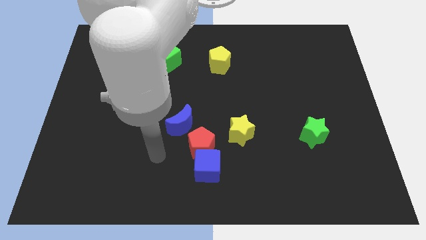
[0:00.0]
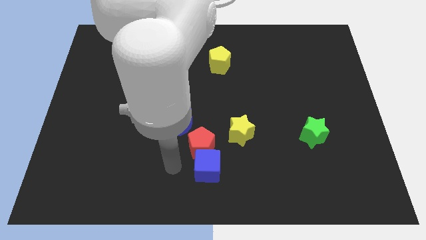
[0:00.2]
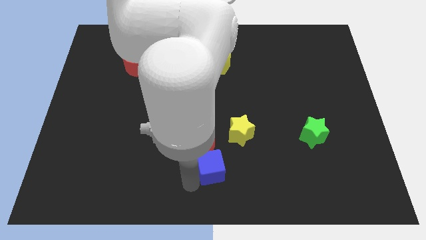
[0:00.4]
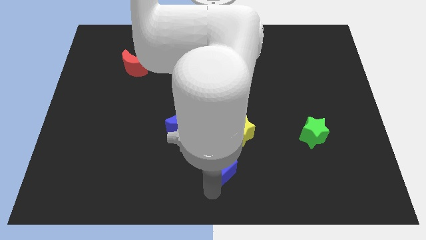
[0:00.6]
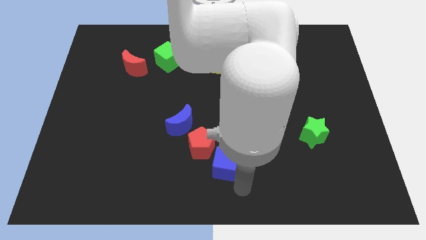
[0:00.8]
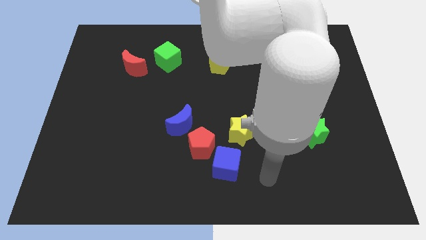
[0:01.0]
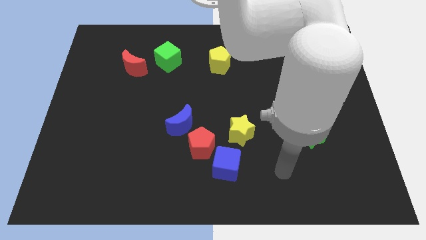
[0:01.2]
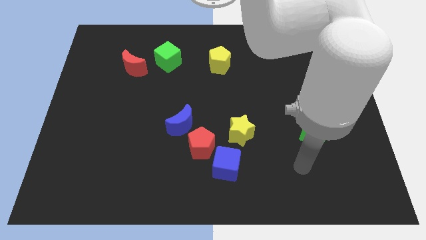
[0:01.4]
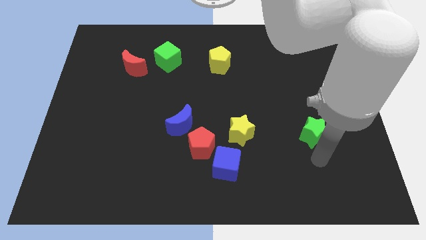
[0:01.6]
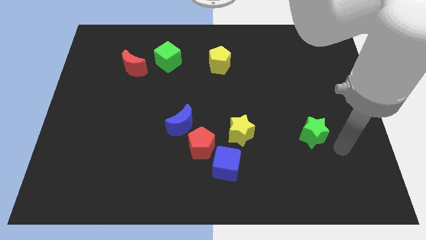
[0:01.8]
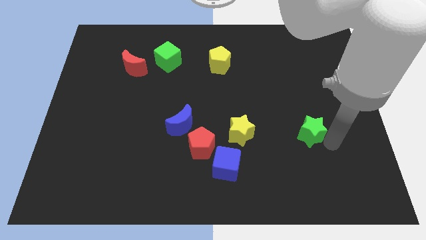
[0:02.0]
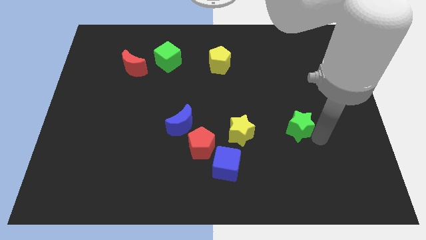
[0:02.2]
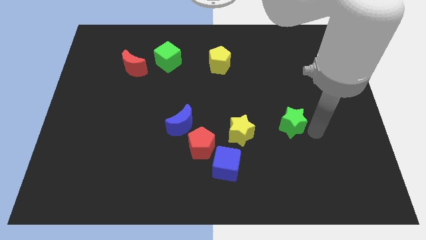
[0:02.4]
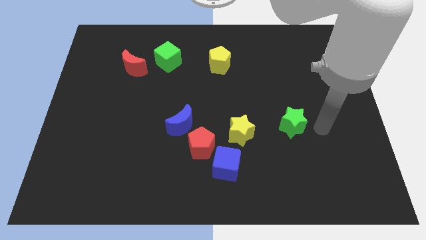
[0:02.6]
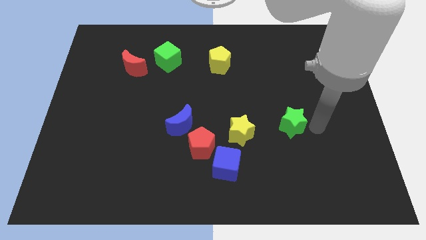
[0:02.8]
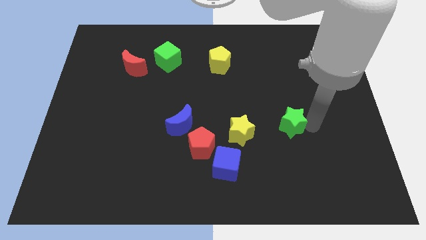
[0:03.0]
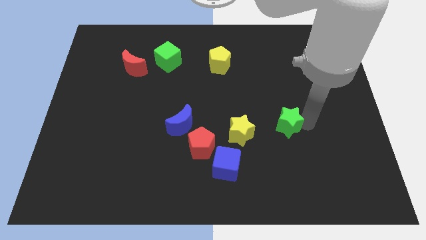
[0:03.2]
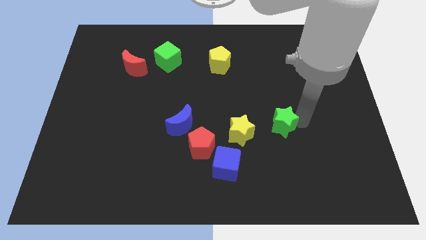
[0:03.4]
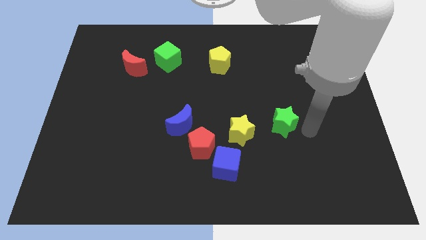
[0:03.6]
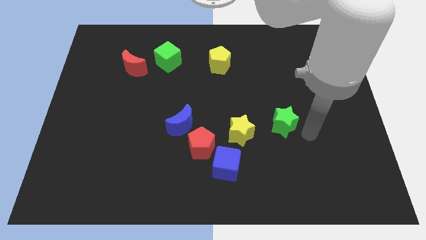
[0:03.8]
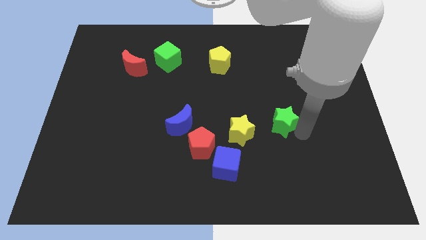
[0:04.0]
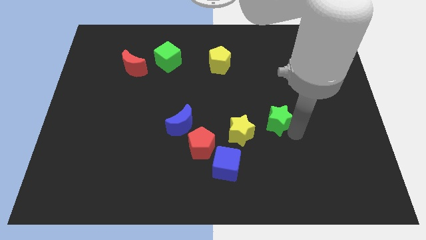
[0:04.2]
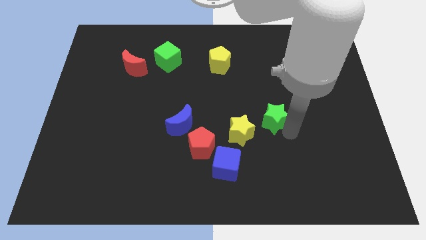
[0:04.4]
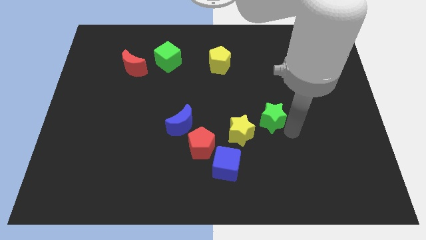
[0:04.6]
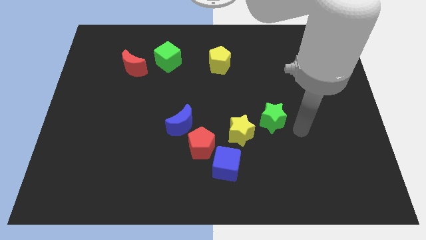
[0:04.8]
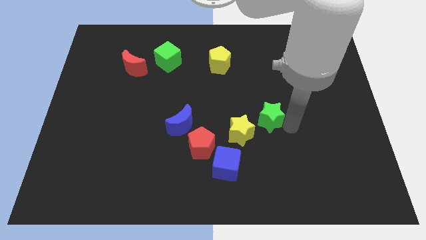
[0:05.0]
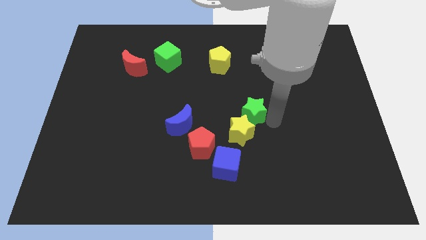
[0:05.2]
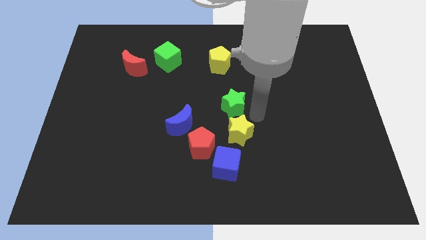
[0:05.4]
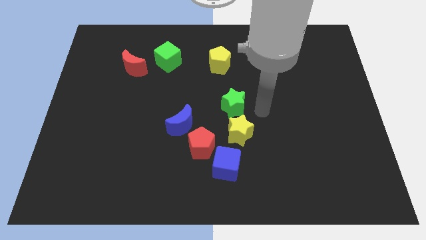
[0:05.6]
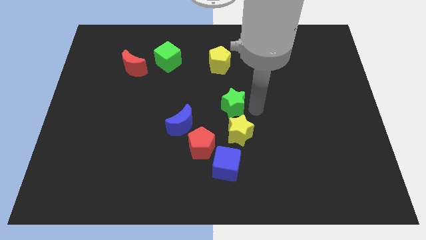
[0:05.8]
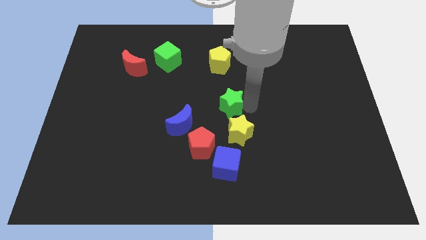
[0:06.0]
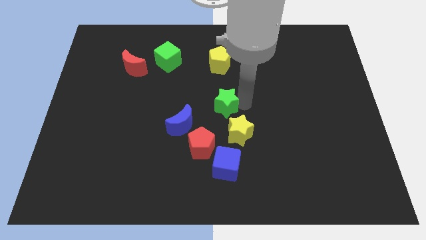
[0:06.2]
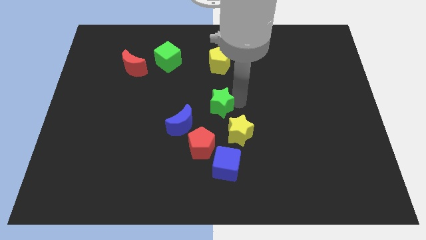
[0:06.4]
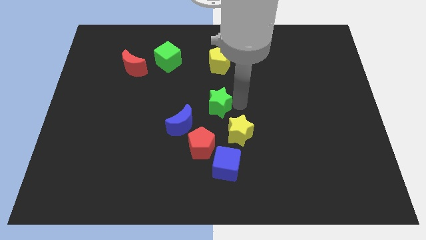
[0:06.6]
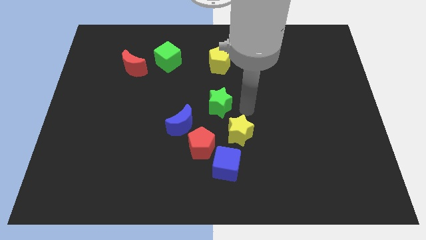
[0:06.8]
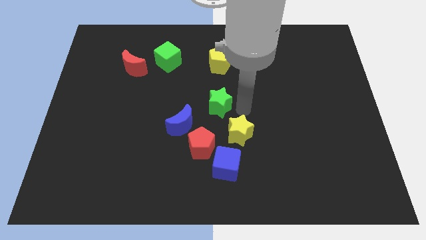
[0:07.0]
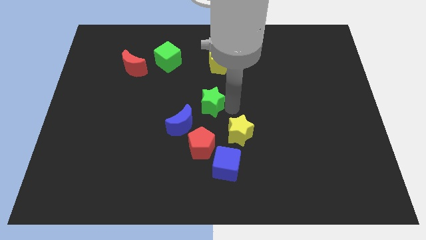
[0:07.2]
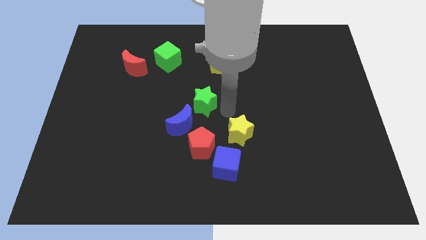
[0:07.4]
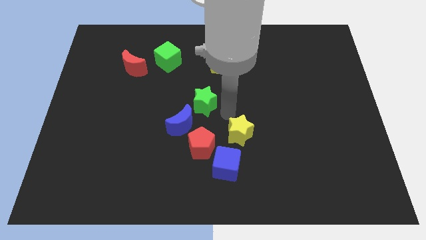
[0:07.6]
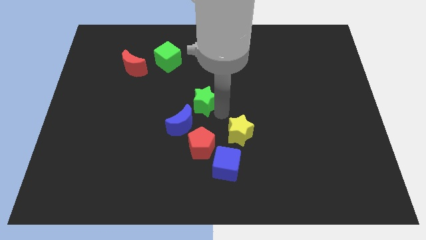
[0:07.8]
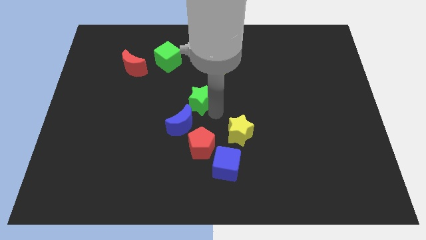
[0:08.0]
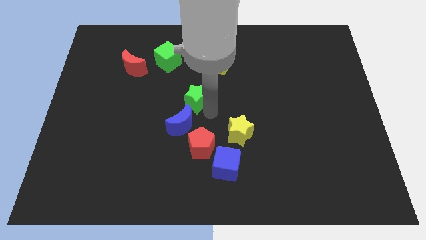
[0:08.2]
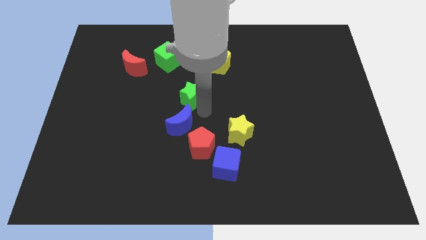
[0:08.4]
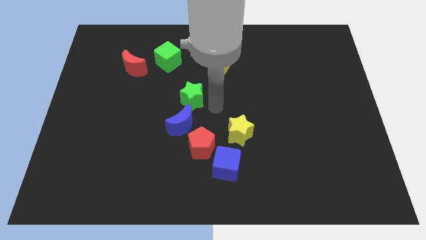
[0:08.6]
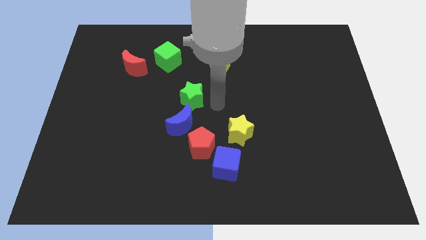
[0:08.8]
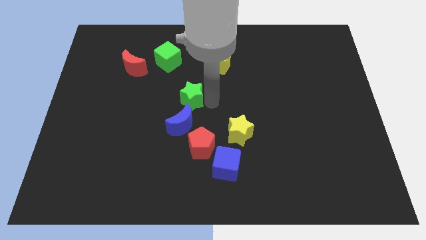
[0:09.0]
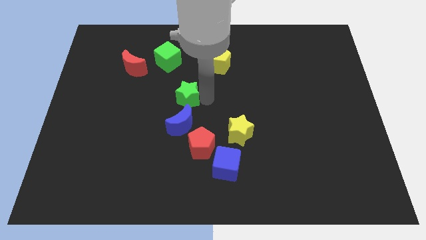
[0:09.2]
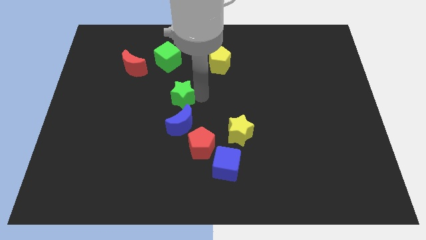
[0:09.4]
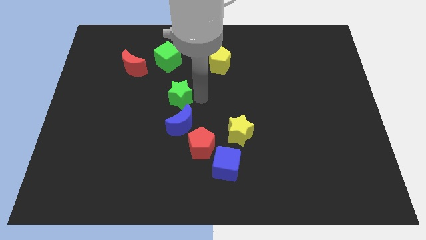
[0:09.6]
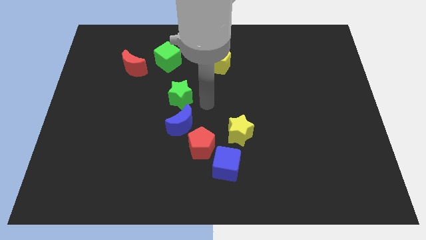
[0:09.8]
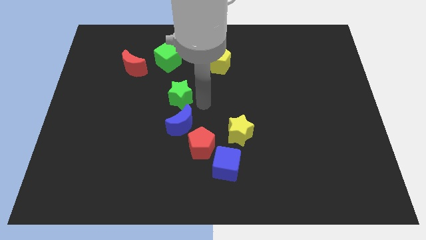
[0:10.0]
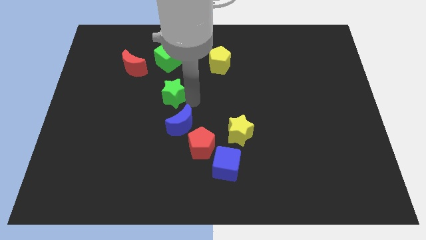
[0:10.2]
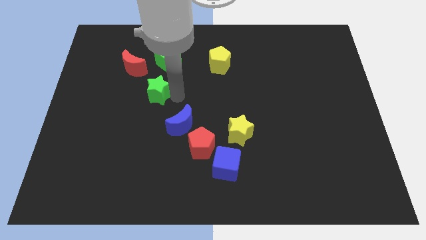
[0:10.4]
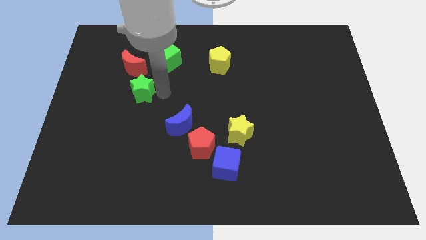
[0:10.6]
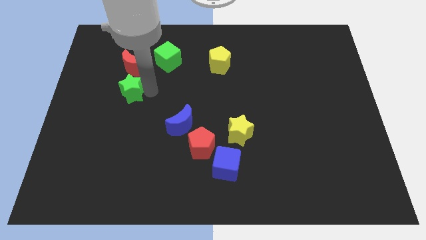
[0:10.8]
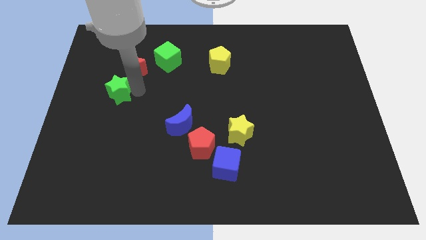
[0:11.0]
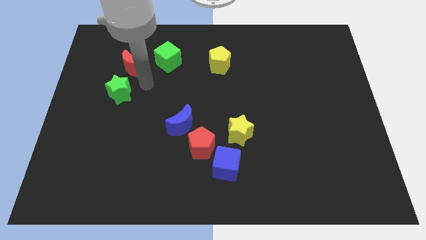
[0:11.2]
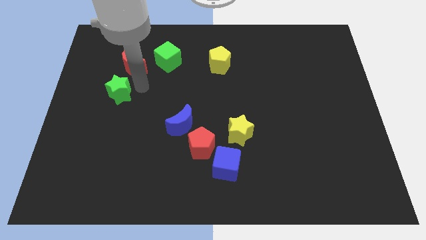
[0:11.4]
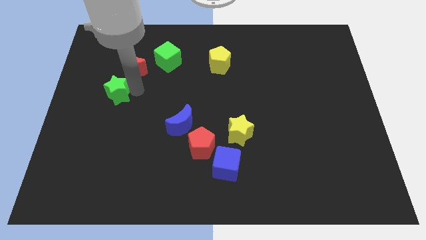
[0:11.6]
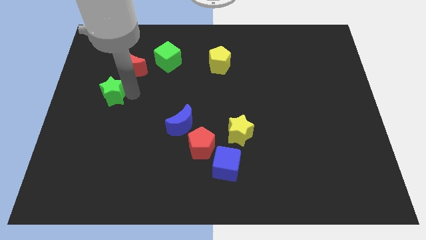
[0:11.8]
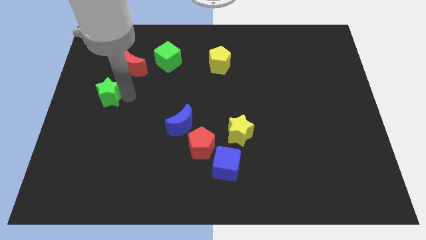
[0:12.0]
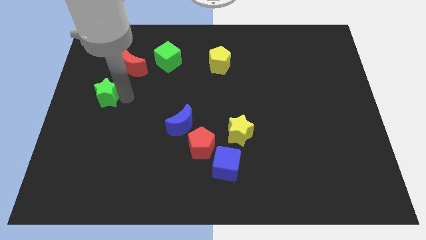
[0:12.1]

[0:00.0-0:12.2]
push the green star to the center left
